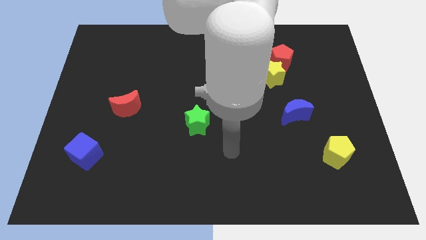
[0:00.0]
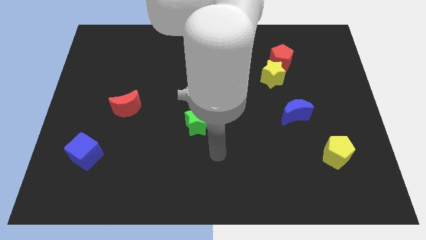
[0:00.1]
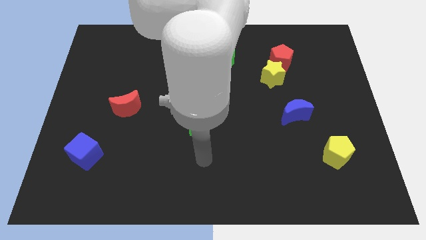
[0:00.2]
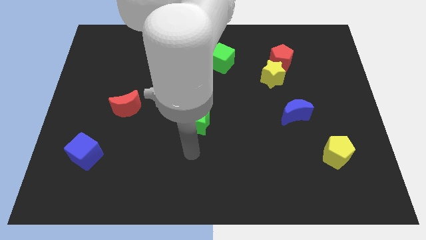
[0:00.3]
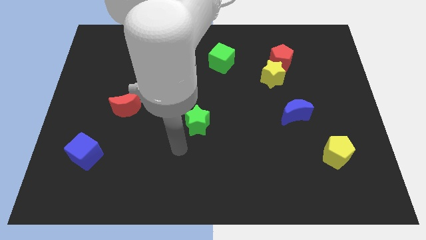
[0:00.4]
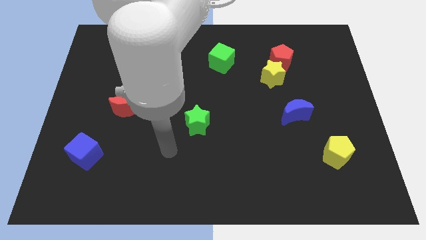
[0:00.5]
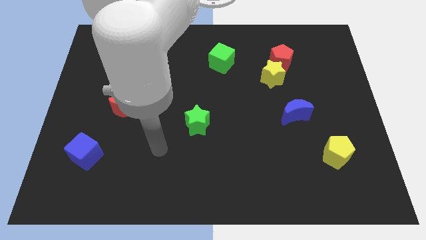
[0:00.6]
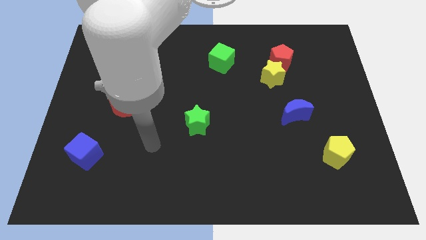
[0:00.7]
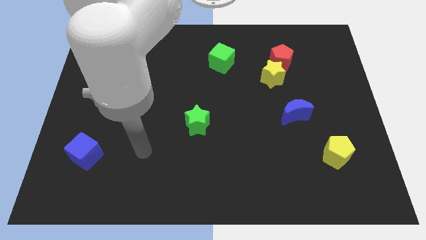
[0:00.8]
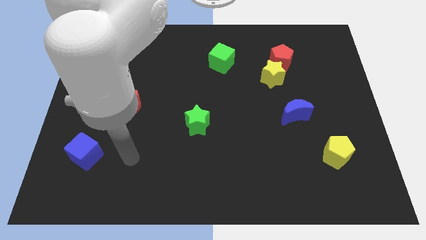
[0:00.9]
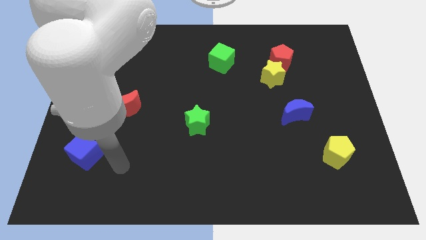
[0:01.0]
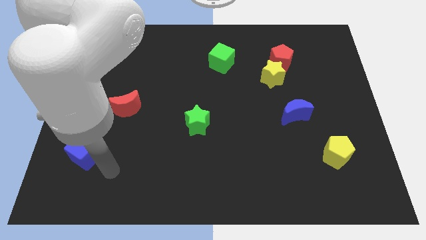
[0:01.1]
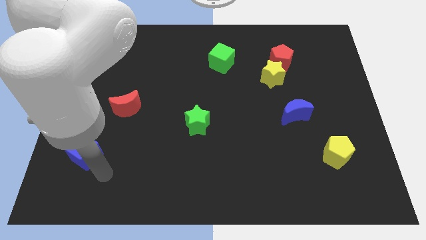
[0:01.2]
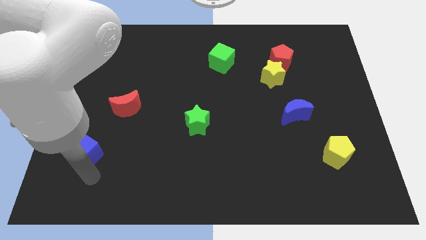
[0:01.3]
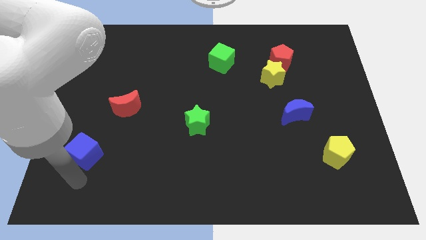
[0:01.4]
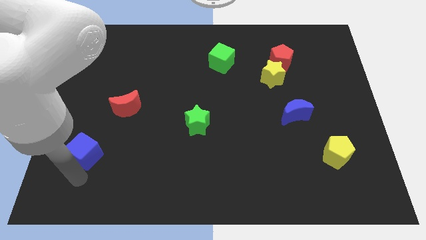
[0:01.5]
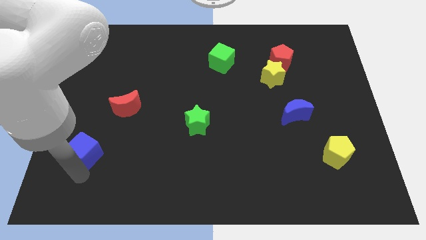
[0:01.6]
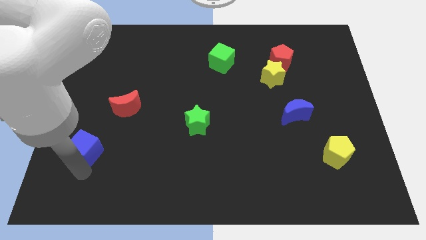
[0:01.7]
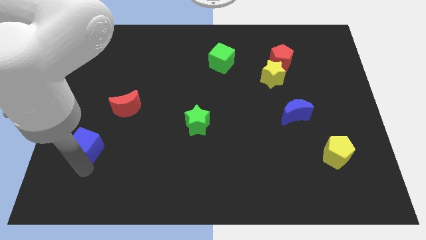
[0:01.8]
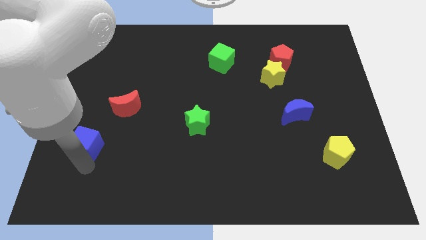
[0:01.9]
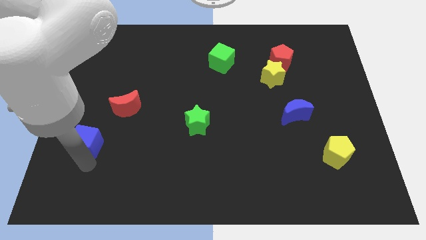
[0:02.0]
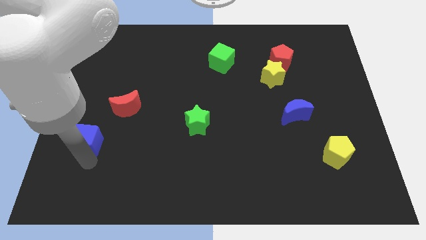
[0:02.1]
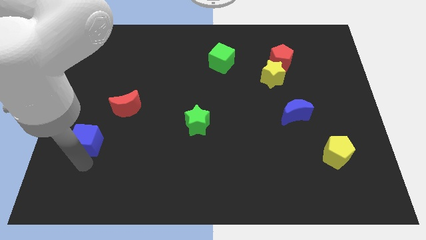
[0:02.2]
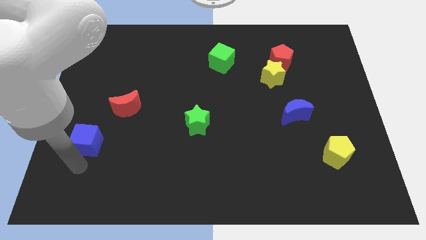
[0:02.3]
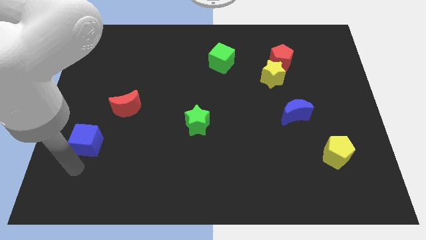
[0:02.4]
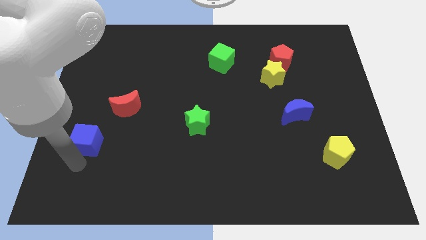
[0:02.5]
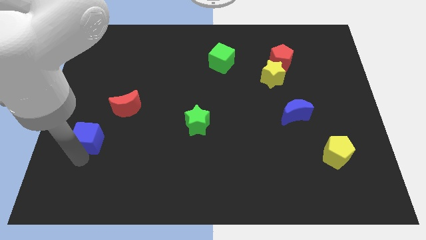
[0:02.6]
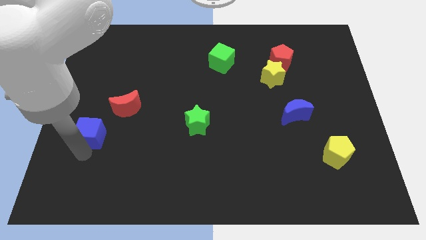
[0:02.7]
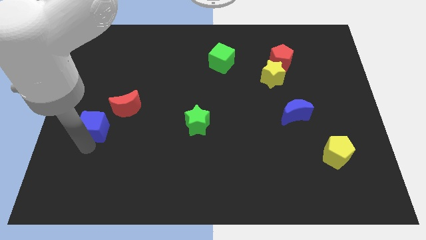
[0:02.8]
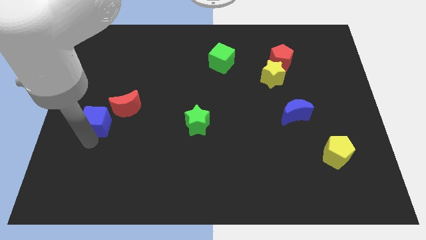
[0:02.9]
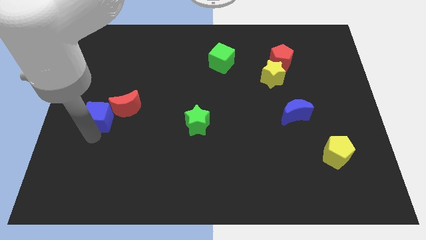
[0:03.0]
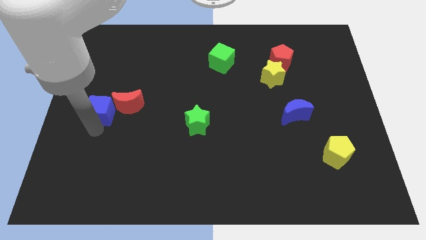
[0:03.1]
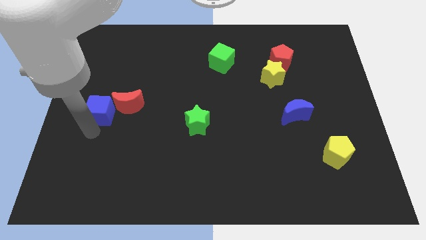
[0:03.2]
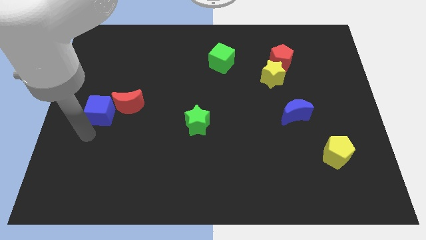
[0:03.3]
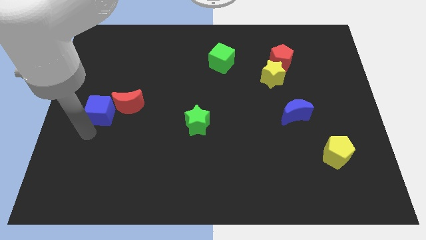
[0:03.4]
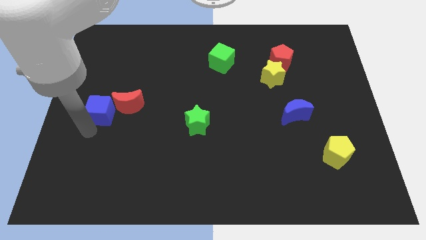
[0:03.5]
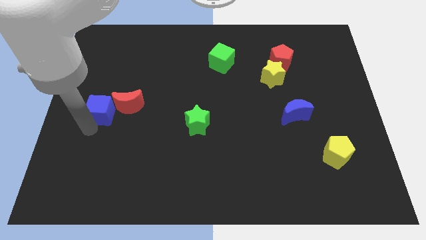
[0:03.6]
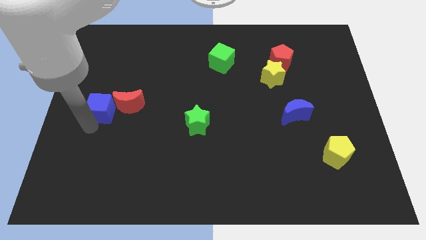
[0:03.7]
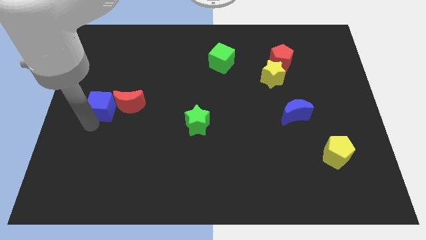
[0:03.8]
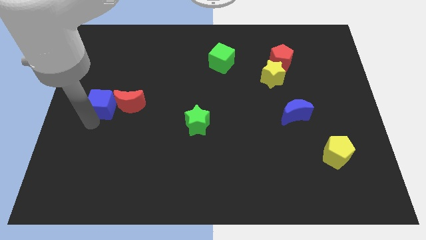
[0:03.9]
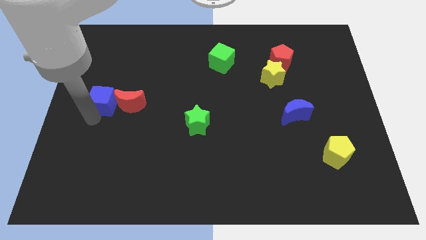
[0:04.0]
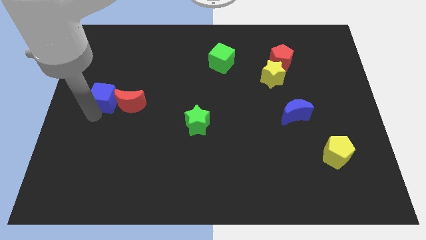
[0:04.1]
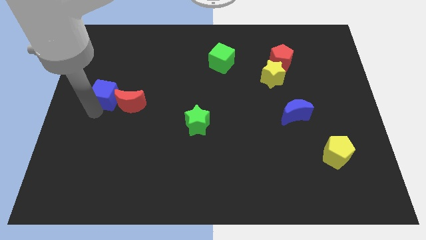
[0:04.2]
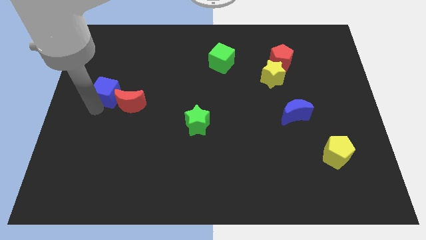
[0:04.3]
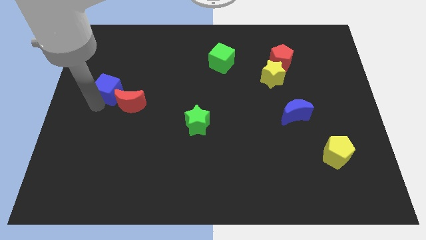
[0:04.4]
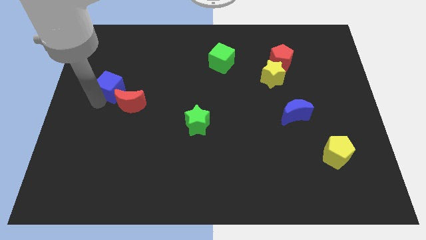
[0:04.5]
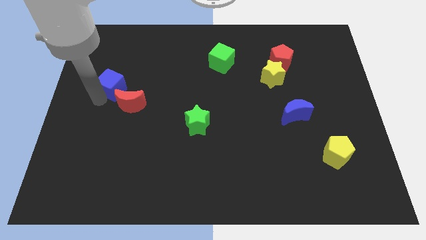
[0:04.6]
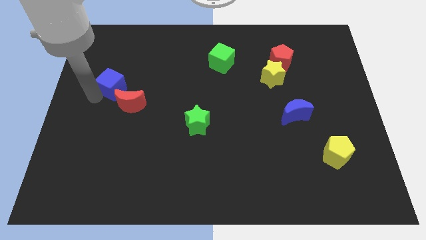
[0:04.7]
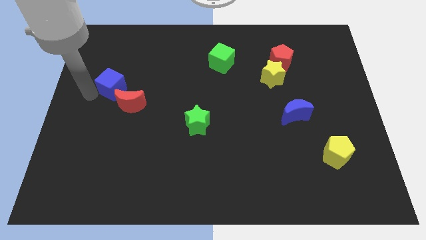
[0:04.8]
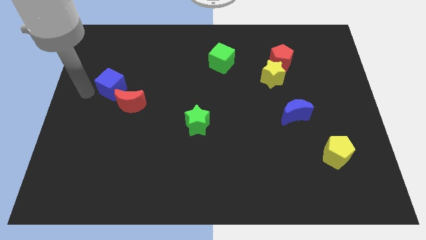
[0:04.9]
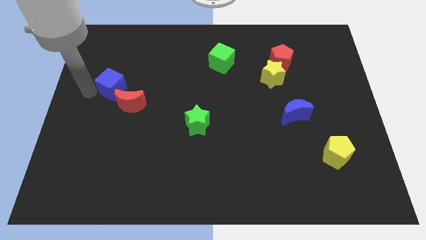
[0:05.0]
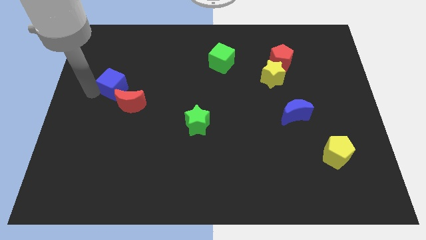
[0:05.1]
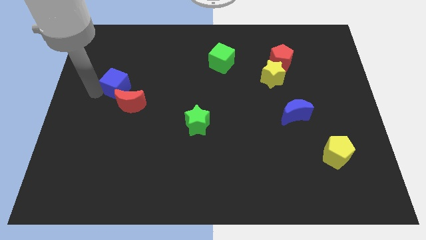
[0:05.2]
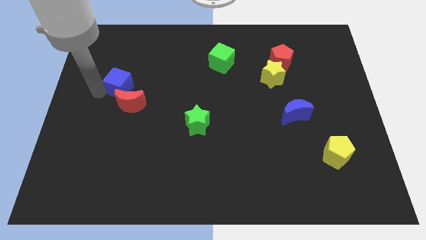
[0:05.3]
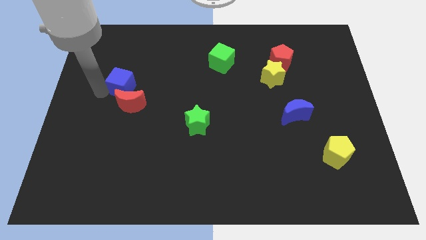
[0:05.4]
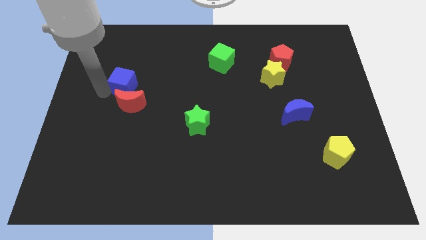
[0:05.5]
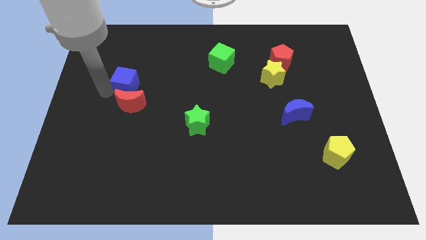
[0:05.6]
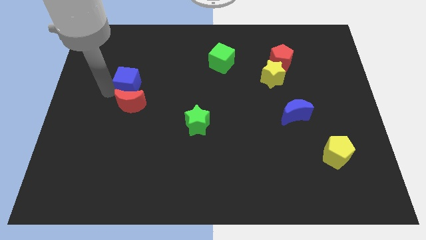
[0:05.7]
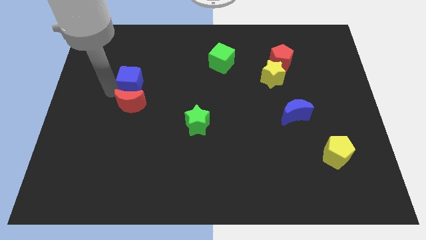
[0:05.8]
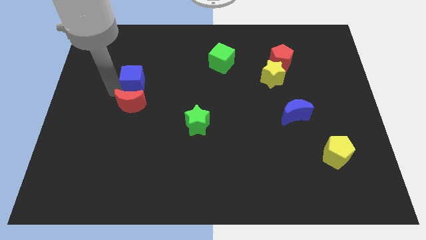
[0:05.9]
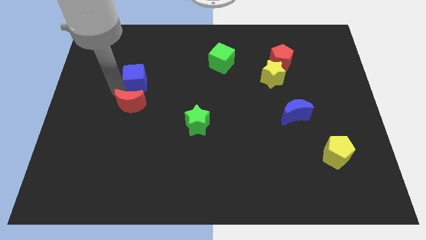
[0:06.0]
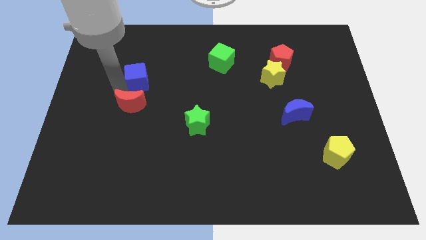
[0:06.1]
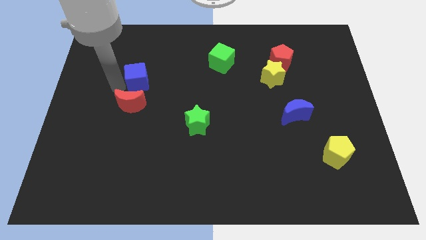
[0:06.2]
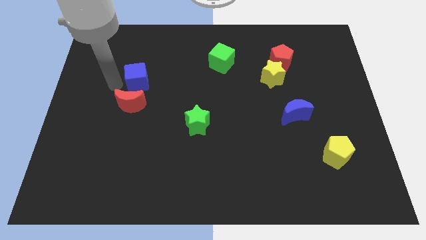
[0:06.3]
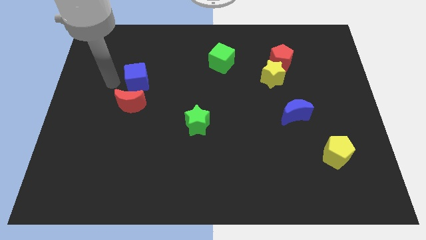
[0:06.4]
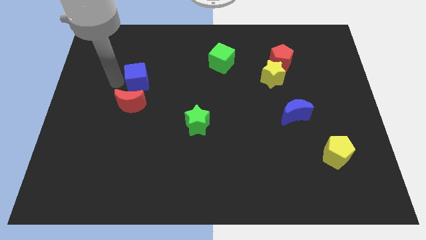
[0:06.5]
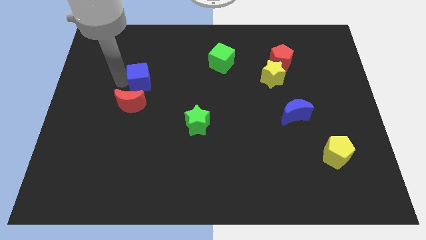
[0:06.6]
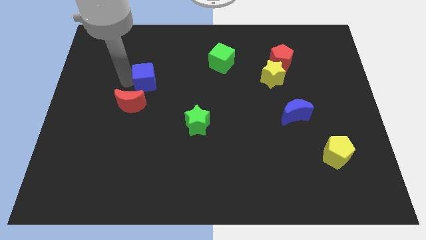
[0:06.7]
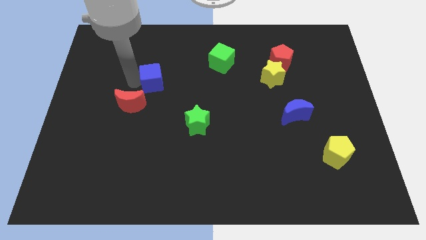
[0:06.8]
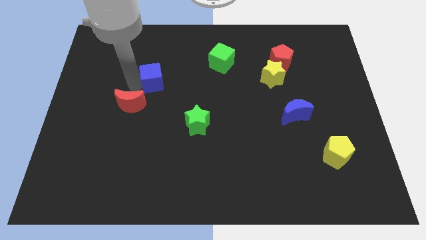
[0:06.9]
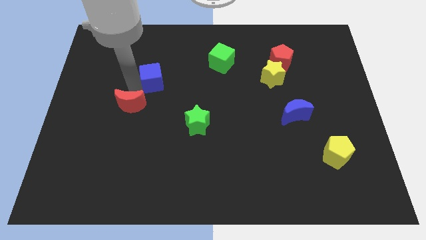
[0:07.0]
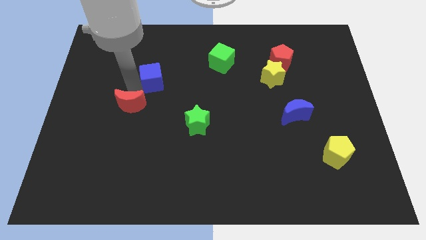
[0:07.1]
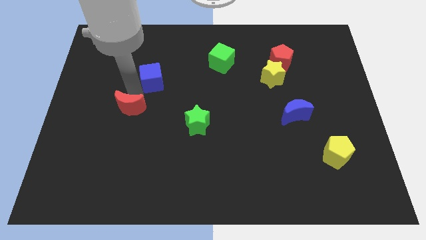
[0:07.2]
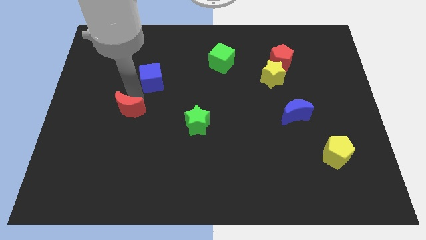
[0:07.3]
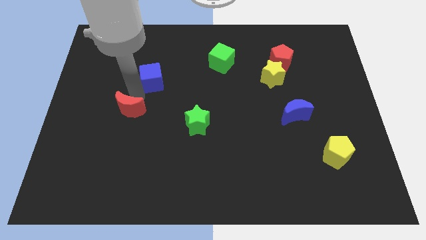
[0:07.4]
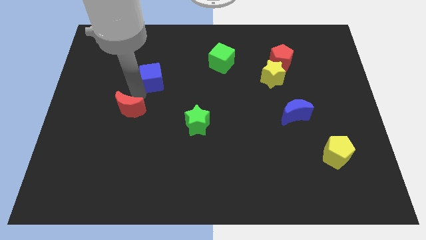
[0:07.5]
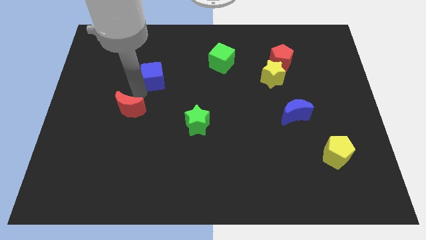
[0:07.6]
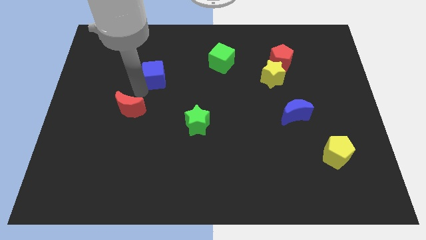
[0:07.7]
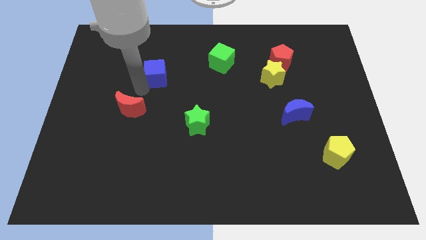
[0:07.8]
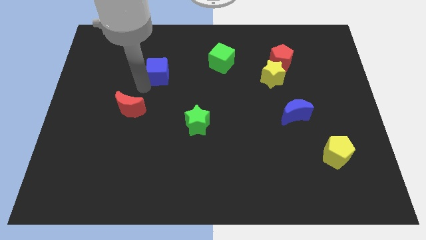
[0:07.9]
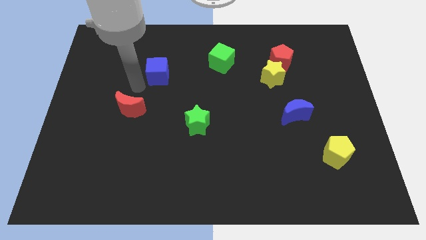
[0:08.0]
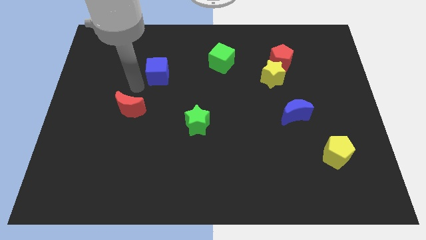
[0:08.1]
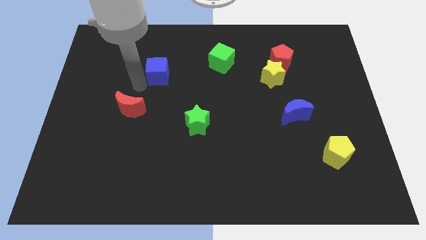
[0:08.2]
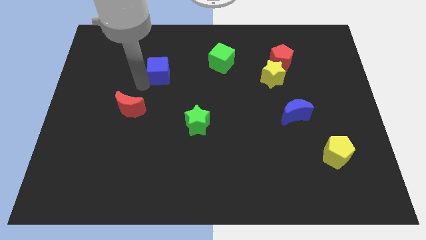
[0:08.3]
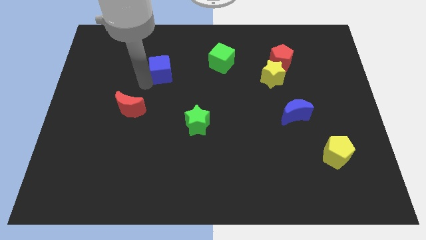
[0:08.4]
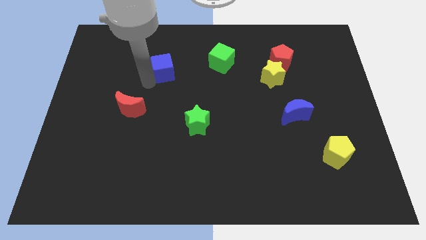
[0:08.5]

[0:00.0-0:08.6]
put the blue cube left of the green cube
